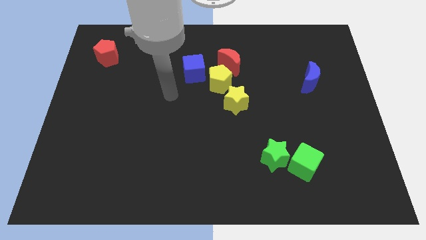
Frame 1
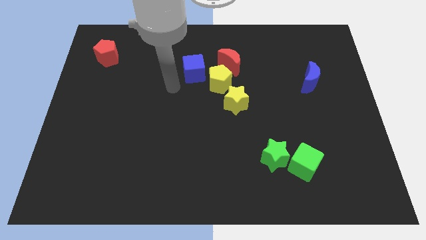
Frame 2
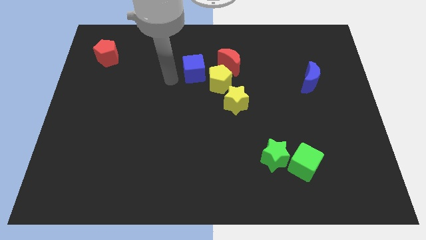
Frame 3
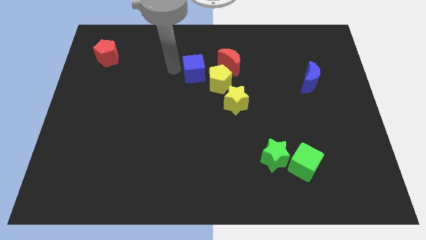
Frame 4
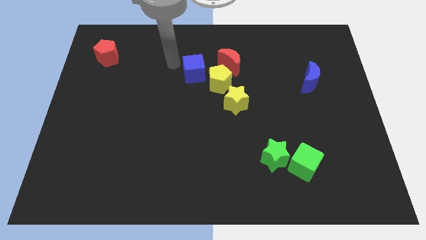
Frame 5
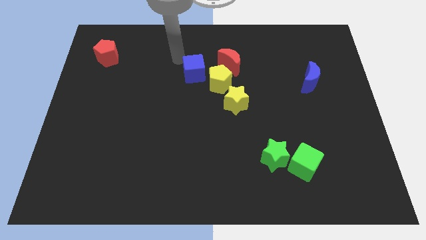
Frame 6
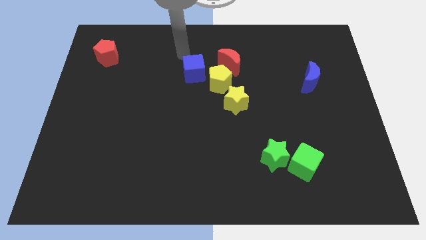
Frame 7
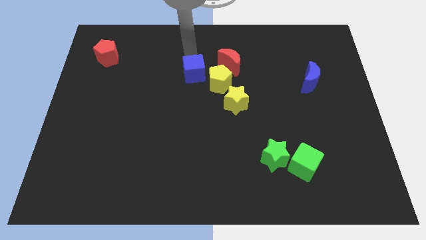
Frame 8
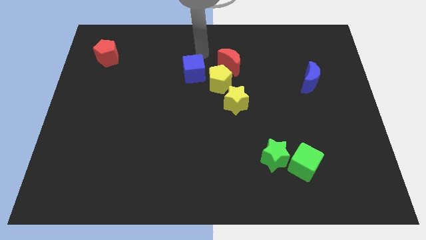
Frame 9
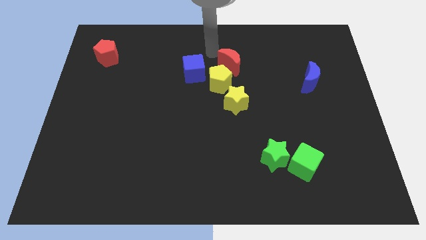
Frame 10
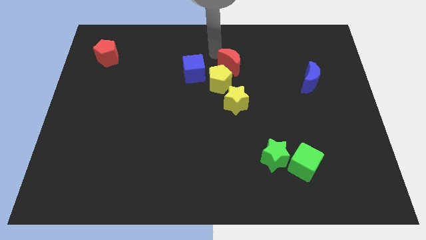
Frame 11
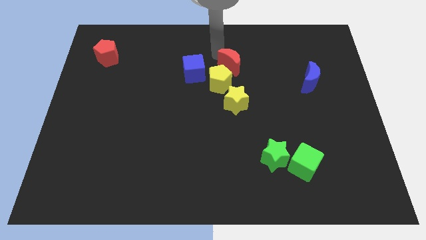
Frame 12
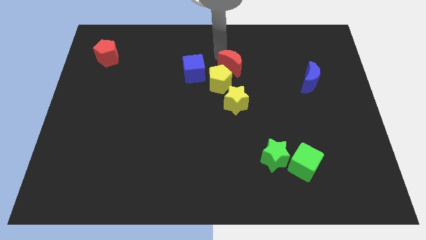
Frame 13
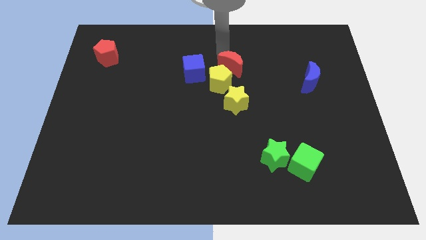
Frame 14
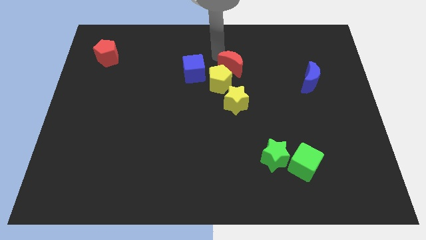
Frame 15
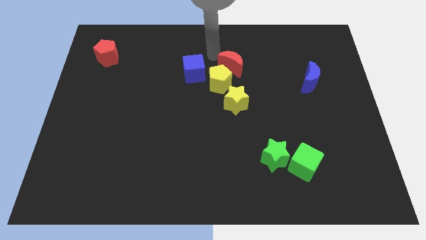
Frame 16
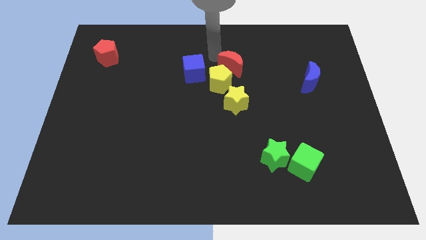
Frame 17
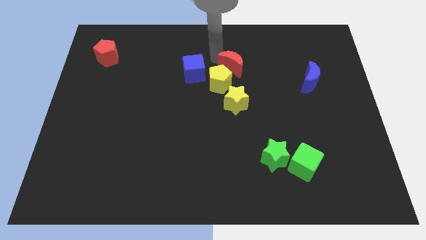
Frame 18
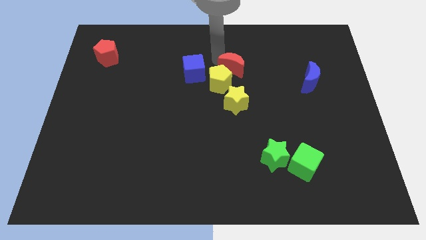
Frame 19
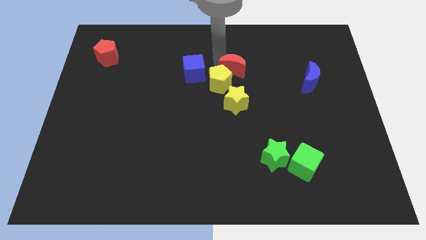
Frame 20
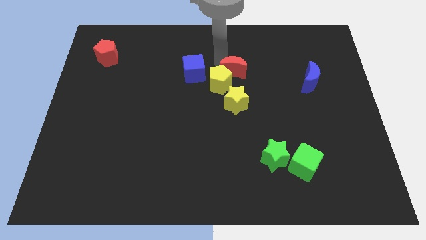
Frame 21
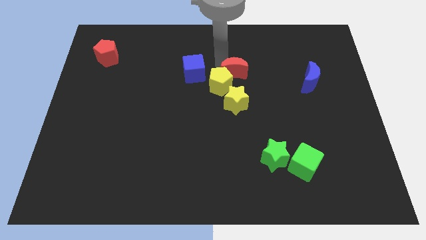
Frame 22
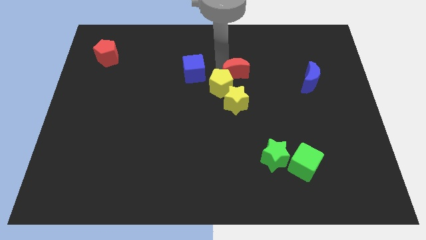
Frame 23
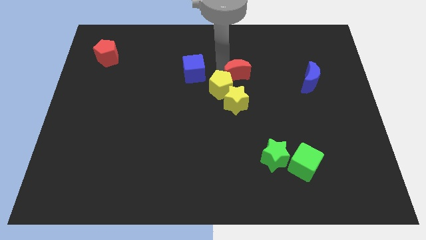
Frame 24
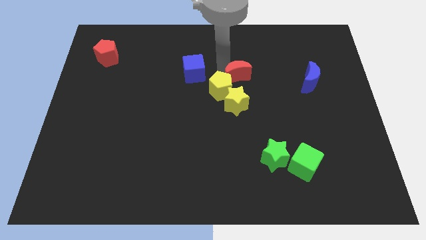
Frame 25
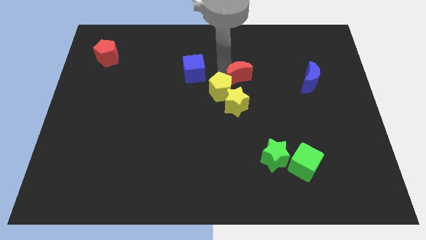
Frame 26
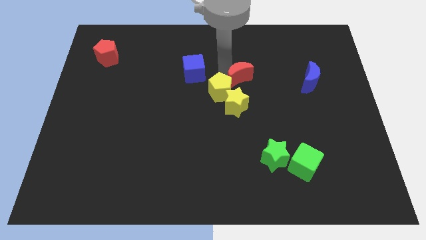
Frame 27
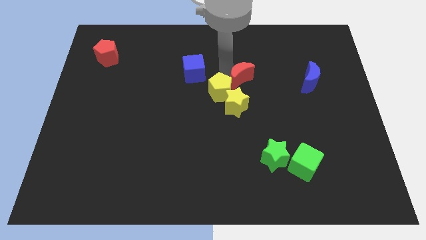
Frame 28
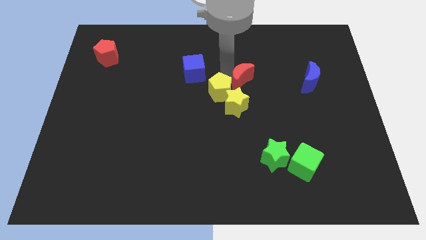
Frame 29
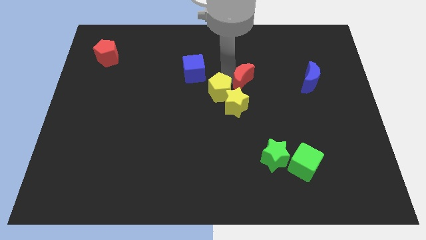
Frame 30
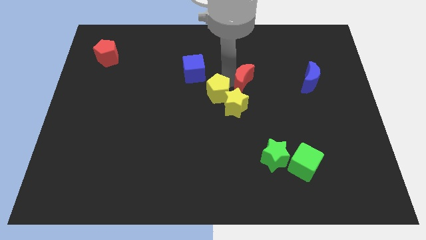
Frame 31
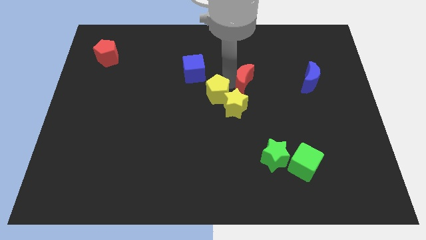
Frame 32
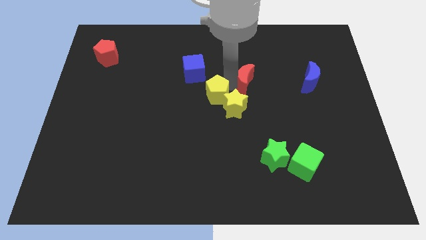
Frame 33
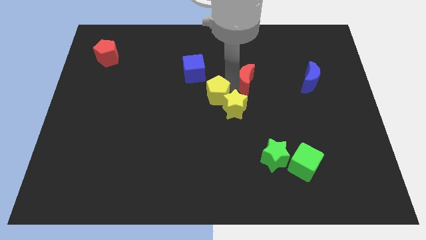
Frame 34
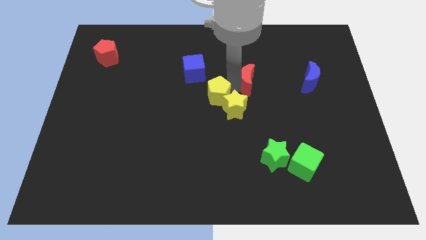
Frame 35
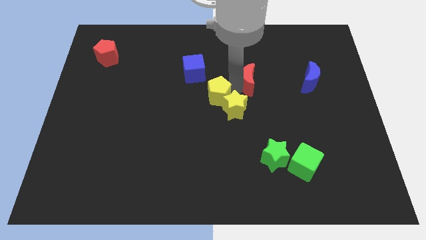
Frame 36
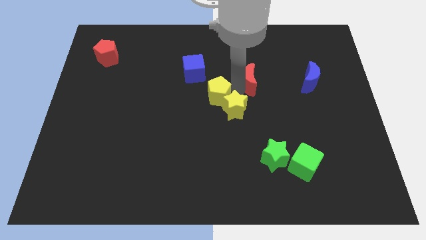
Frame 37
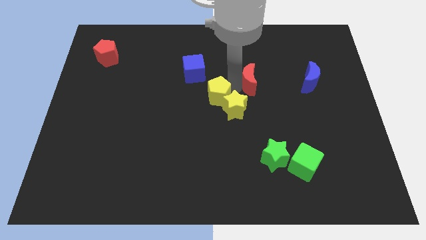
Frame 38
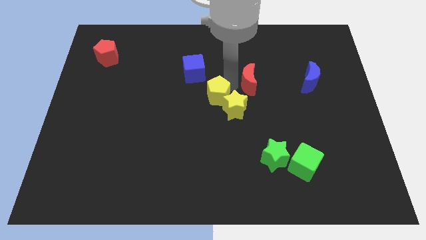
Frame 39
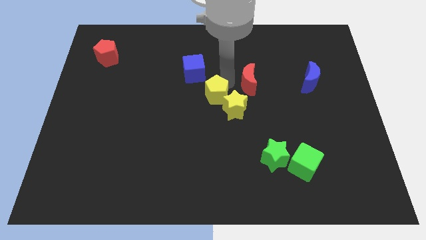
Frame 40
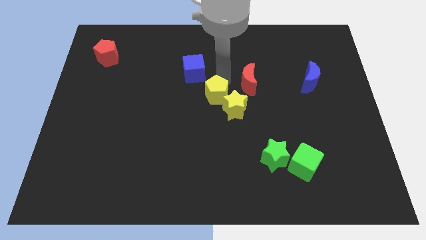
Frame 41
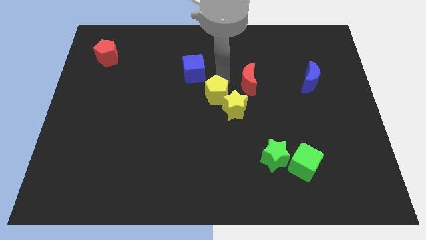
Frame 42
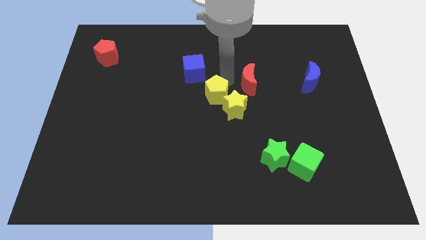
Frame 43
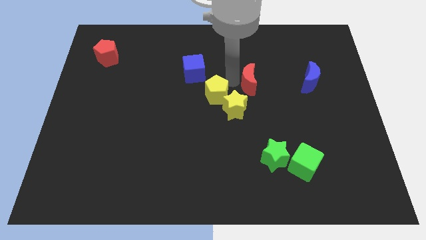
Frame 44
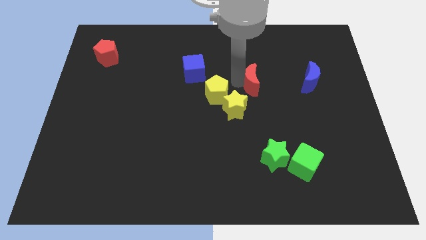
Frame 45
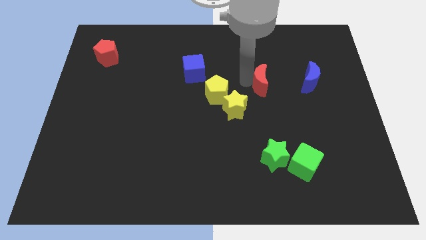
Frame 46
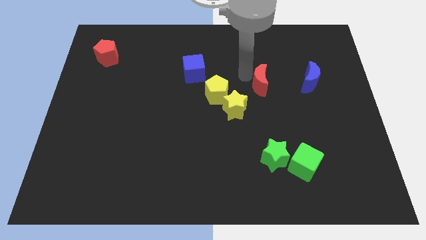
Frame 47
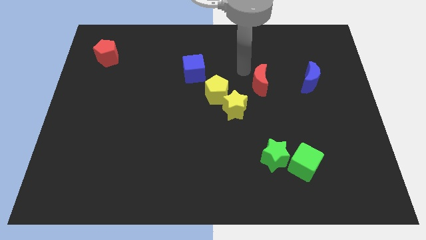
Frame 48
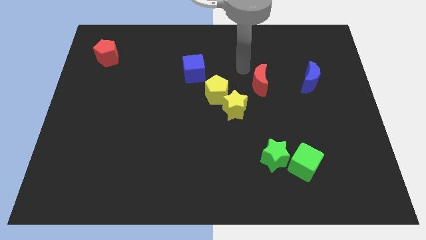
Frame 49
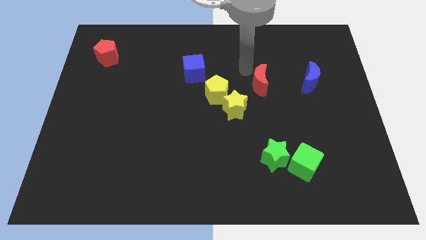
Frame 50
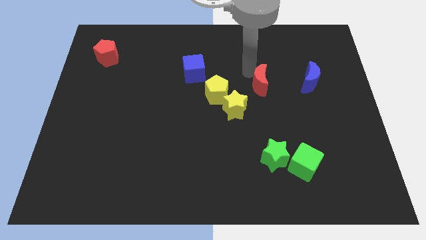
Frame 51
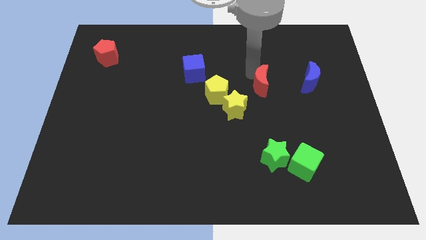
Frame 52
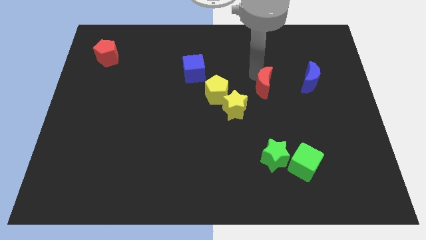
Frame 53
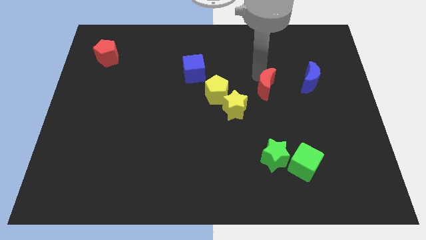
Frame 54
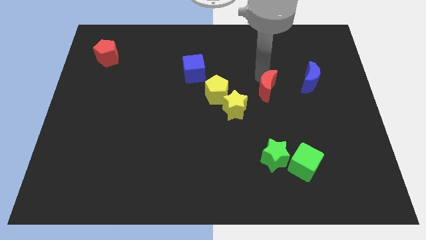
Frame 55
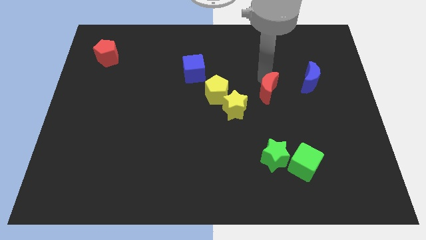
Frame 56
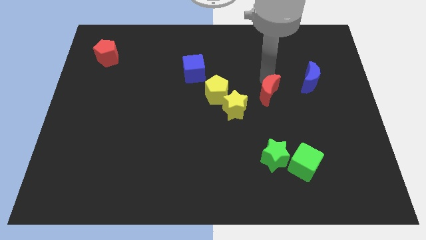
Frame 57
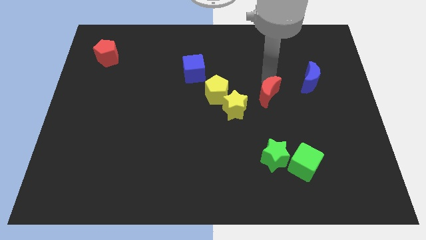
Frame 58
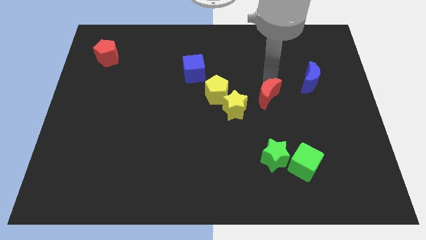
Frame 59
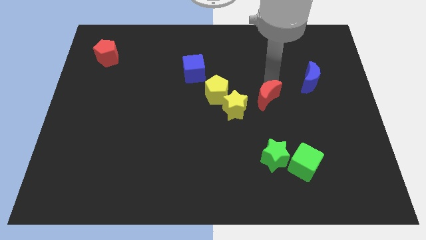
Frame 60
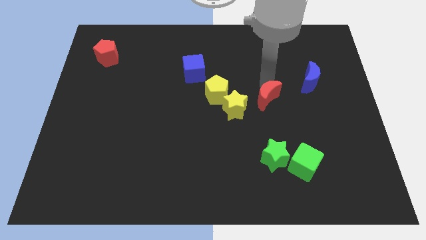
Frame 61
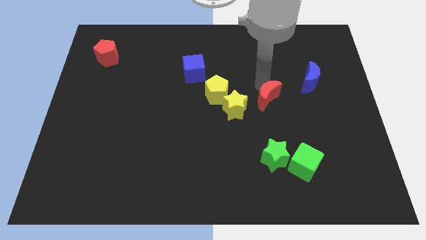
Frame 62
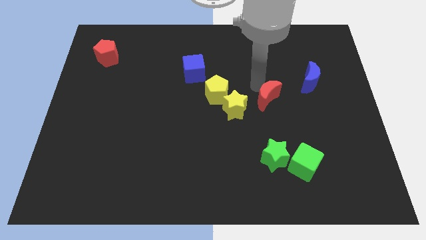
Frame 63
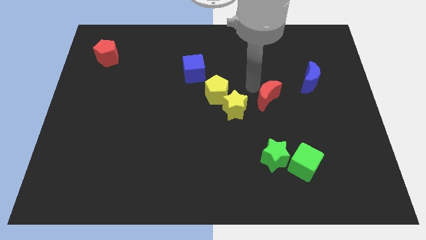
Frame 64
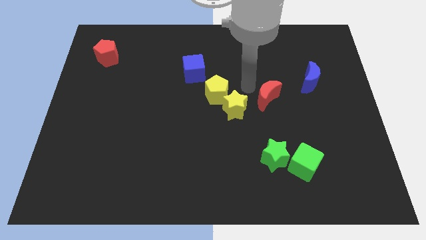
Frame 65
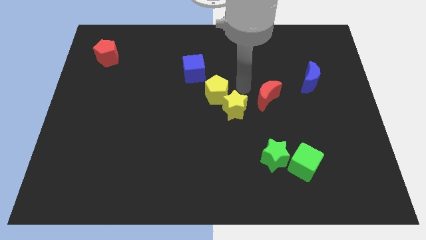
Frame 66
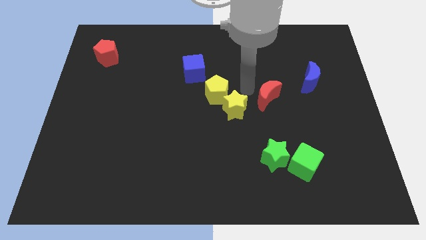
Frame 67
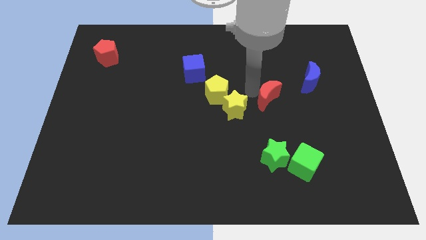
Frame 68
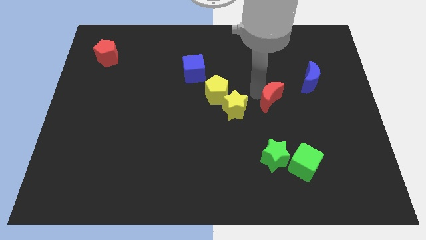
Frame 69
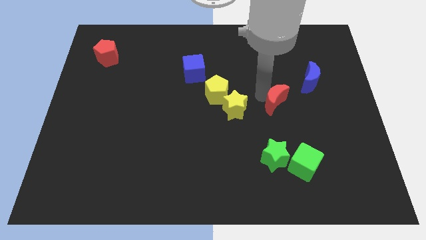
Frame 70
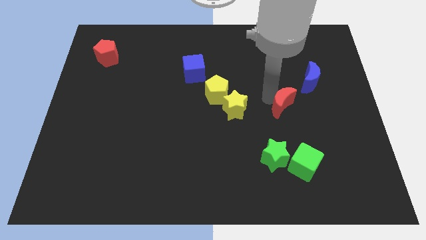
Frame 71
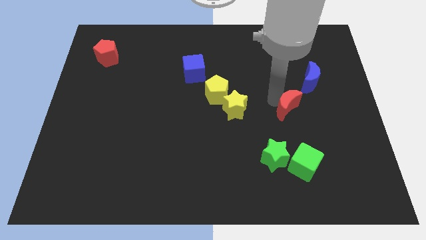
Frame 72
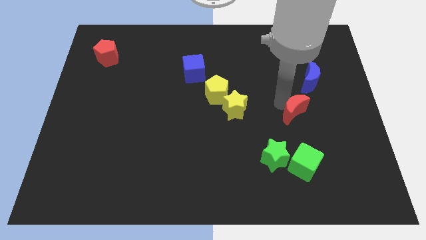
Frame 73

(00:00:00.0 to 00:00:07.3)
slide the red moon diagonally downwards and right

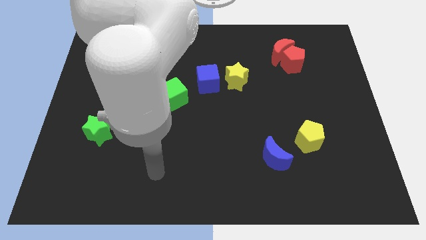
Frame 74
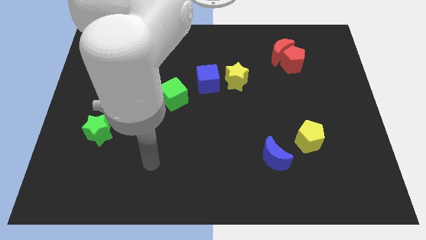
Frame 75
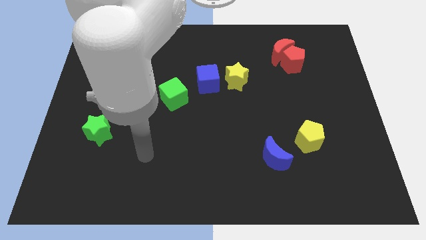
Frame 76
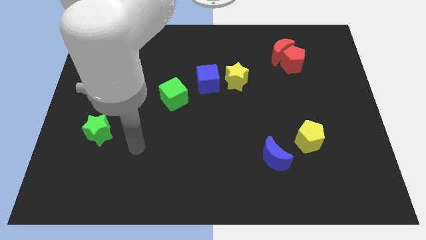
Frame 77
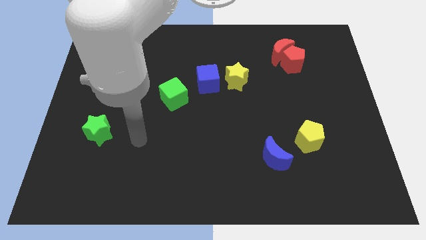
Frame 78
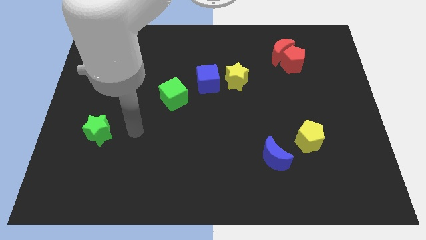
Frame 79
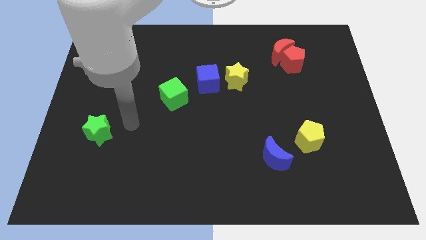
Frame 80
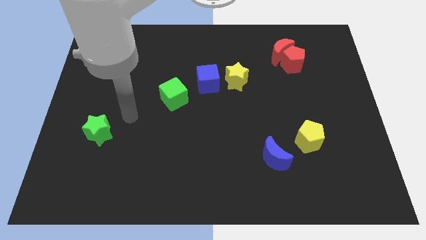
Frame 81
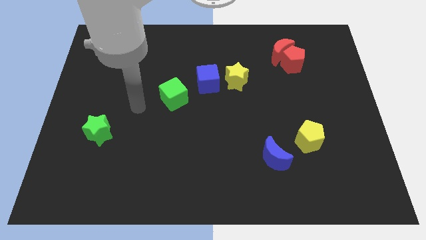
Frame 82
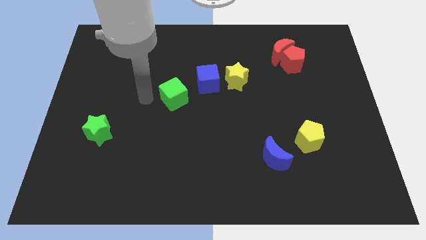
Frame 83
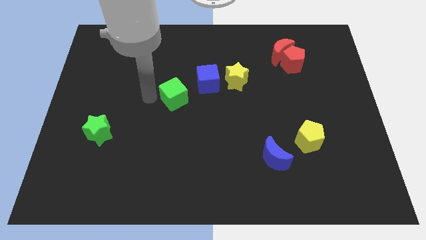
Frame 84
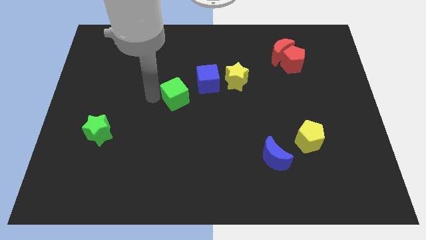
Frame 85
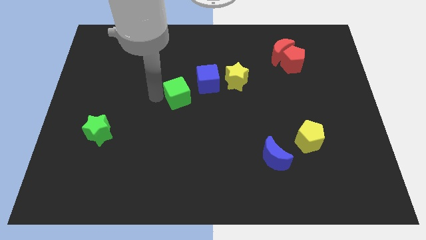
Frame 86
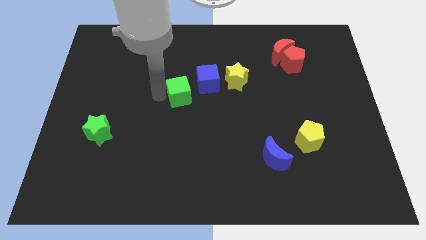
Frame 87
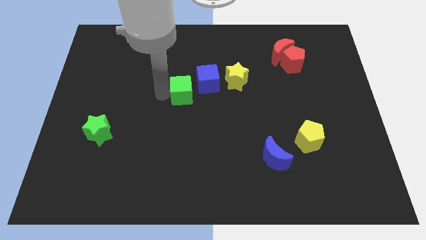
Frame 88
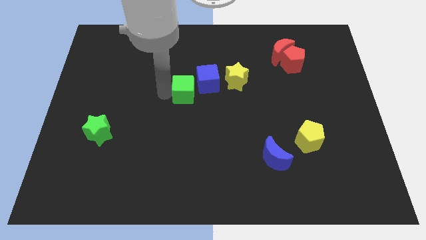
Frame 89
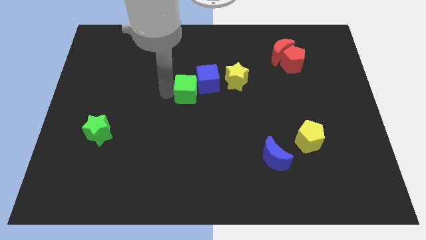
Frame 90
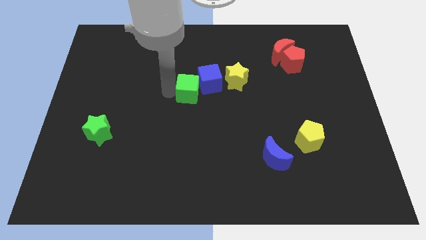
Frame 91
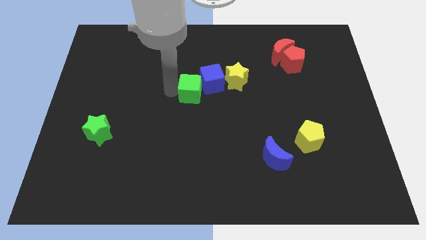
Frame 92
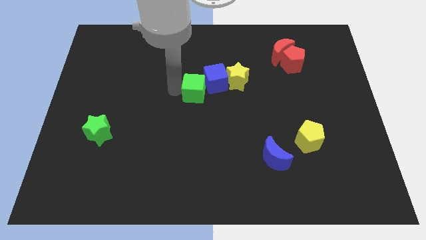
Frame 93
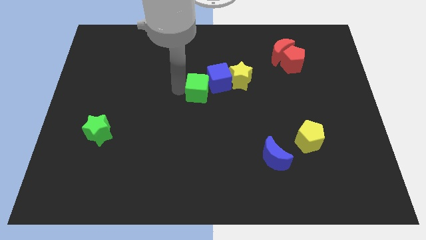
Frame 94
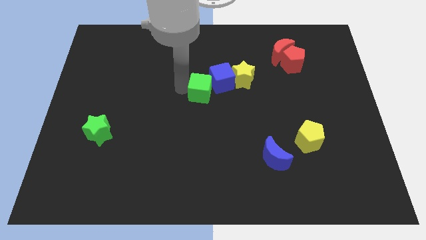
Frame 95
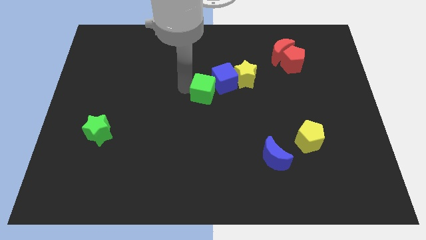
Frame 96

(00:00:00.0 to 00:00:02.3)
slightly slide the green cube to the right
